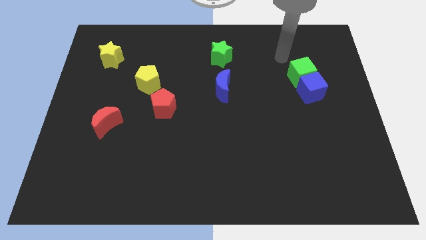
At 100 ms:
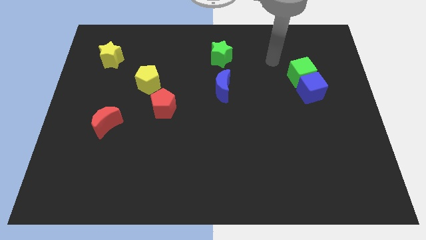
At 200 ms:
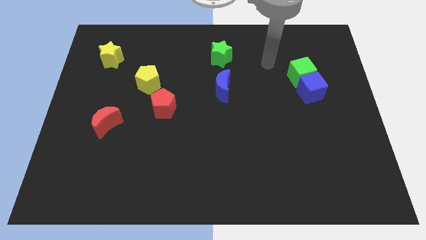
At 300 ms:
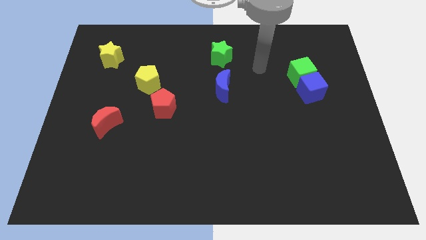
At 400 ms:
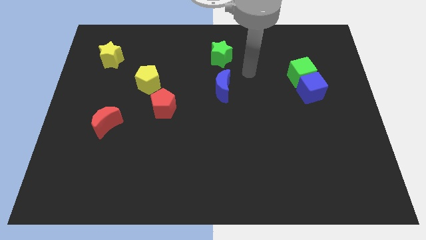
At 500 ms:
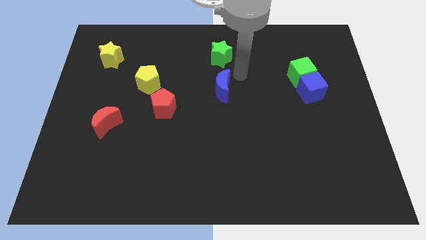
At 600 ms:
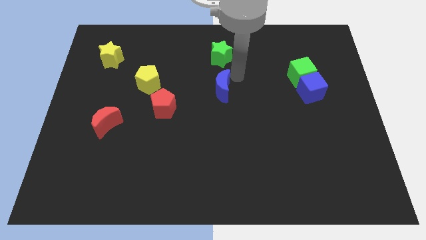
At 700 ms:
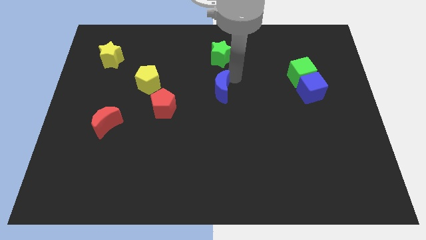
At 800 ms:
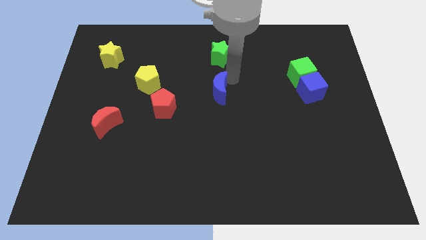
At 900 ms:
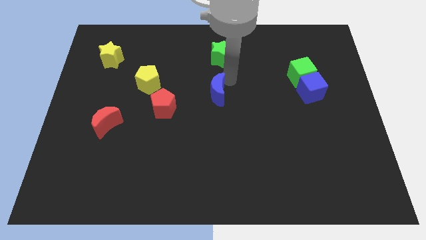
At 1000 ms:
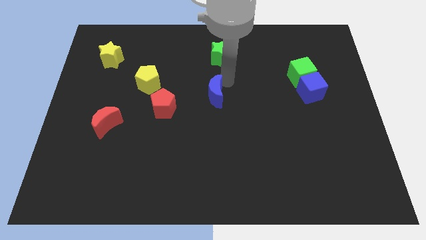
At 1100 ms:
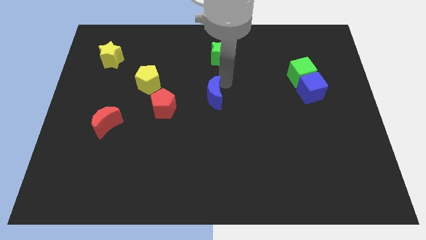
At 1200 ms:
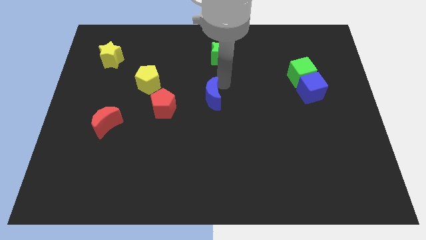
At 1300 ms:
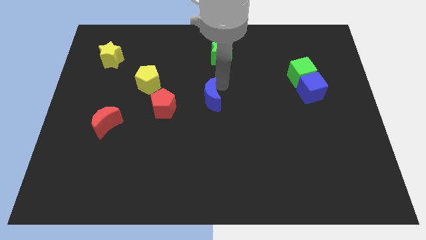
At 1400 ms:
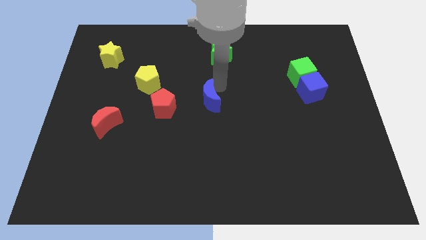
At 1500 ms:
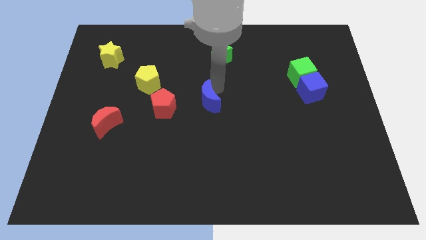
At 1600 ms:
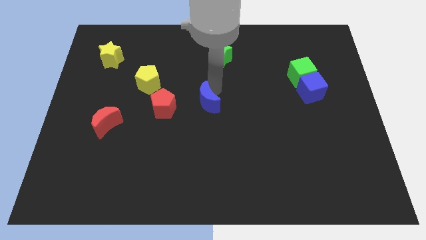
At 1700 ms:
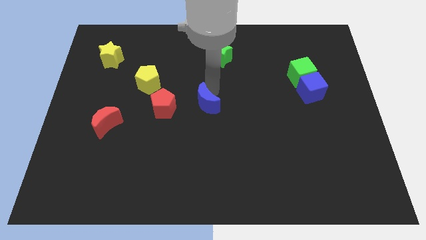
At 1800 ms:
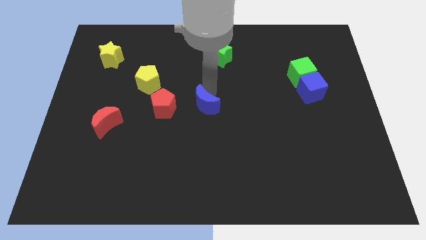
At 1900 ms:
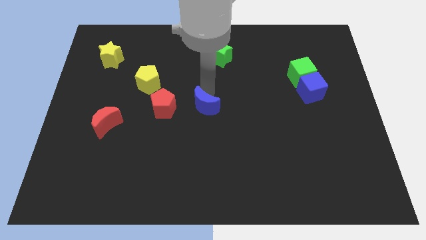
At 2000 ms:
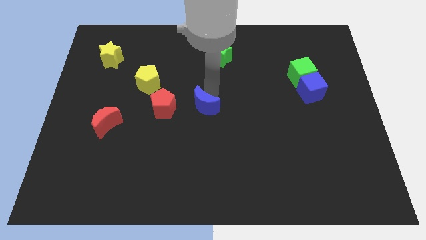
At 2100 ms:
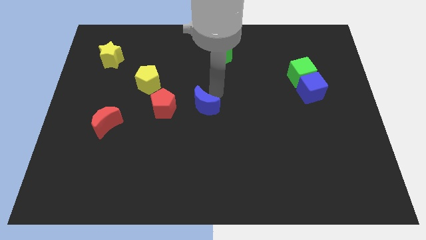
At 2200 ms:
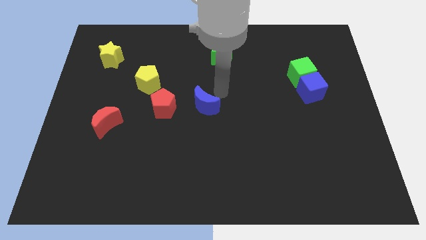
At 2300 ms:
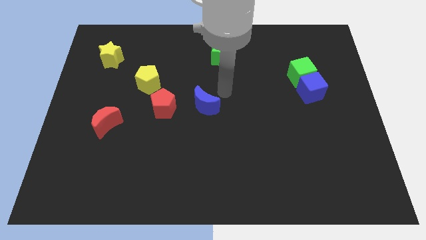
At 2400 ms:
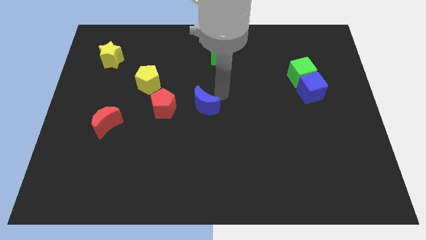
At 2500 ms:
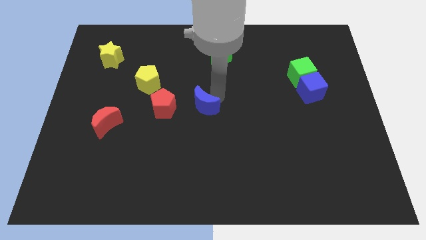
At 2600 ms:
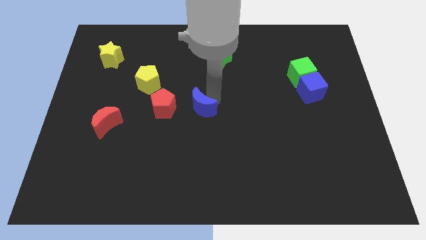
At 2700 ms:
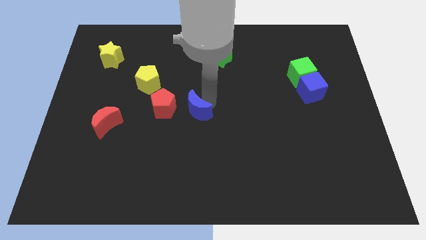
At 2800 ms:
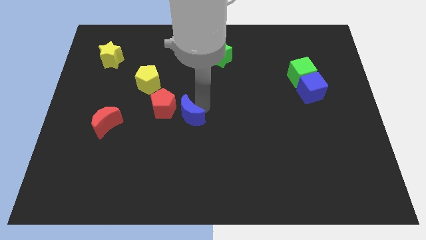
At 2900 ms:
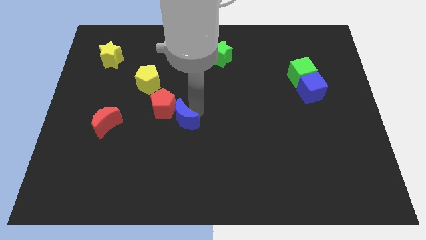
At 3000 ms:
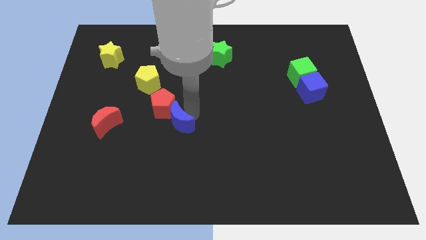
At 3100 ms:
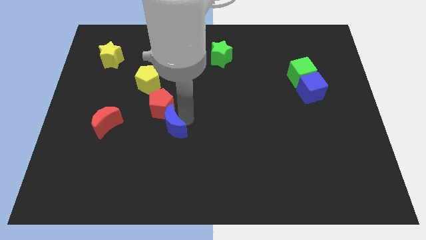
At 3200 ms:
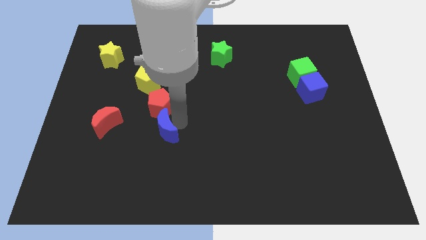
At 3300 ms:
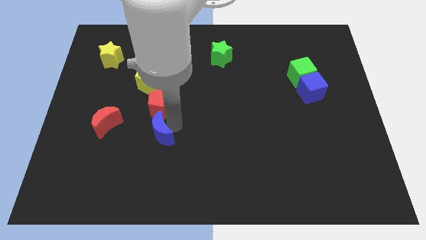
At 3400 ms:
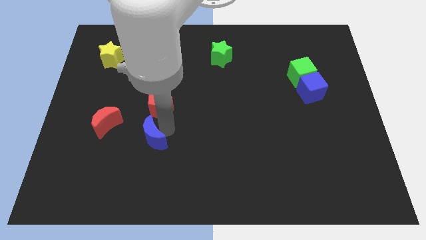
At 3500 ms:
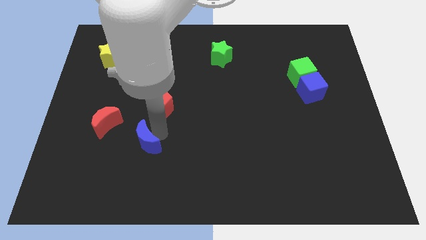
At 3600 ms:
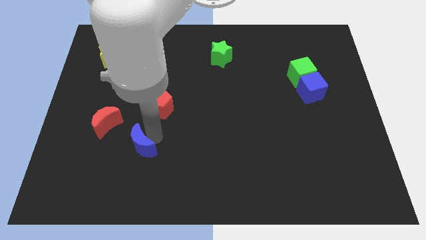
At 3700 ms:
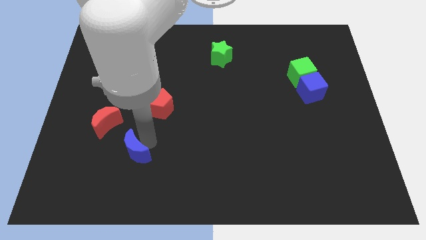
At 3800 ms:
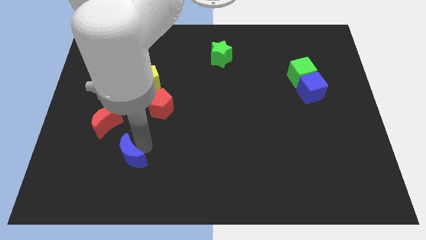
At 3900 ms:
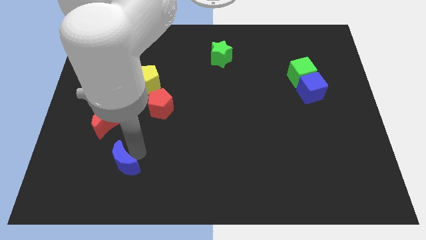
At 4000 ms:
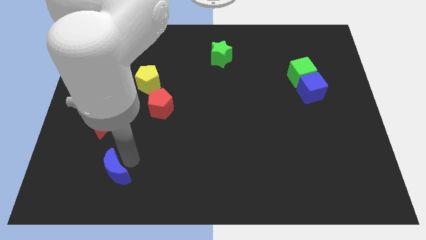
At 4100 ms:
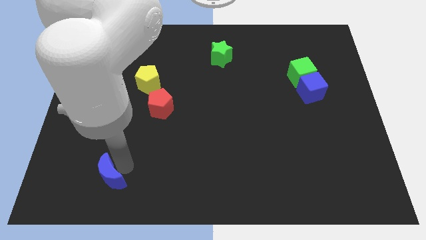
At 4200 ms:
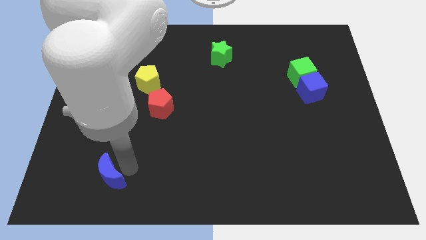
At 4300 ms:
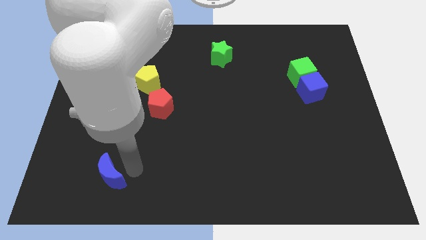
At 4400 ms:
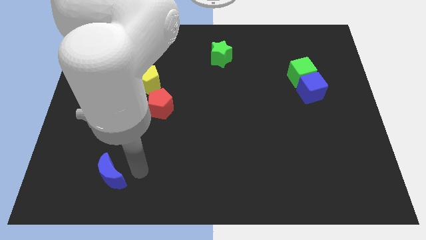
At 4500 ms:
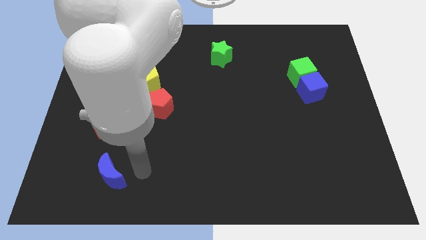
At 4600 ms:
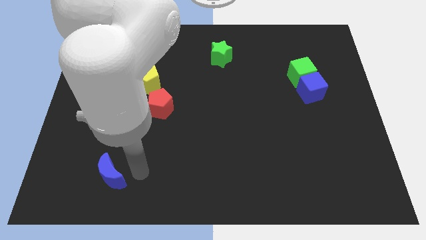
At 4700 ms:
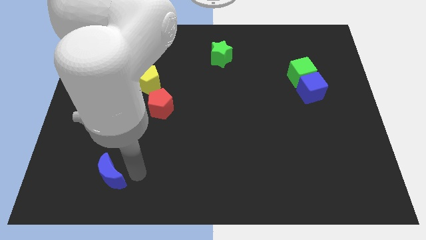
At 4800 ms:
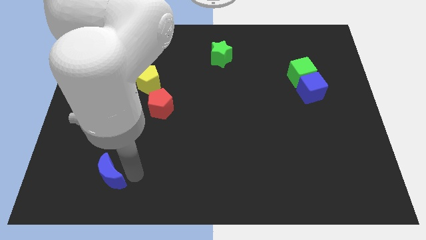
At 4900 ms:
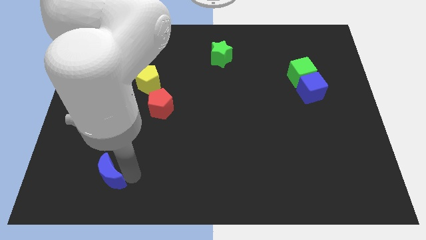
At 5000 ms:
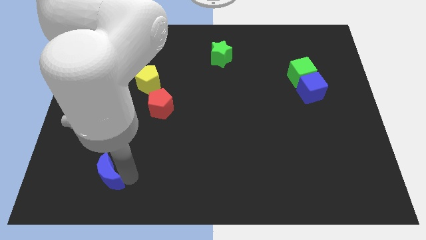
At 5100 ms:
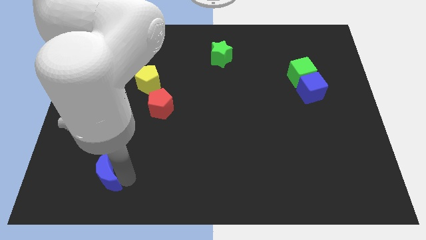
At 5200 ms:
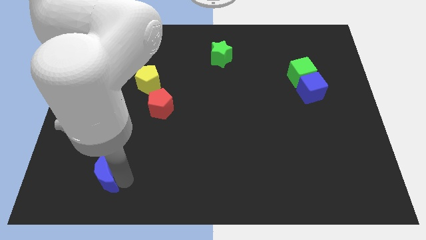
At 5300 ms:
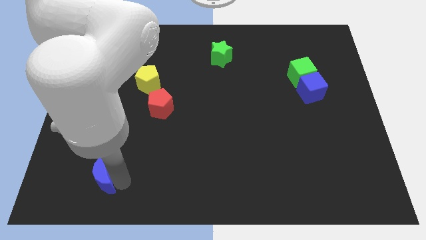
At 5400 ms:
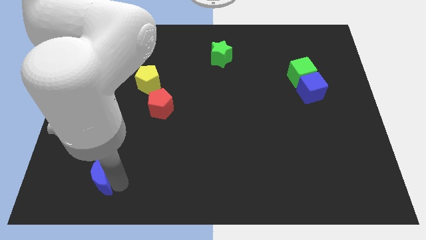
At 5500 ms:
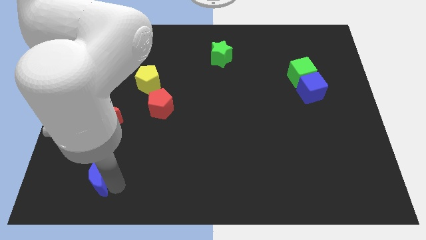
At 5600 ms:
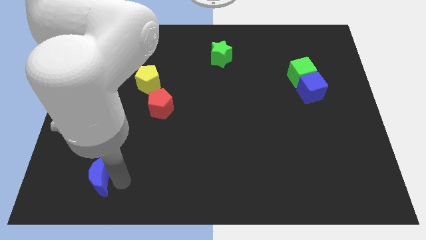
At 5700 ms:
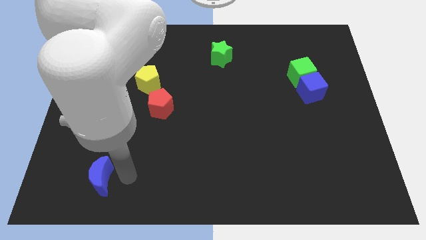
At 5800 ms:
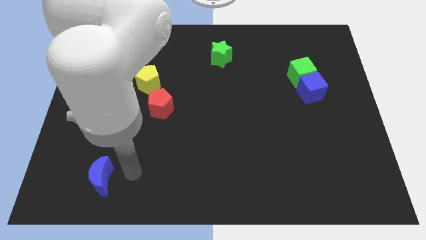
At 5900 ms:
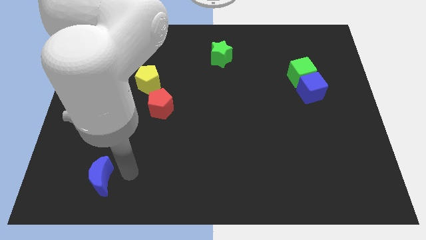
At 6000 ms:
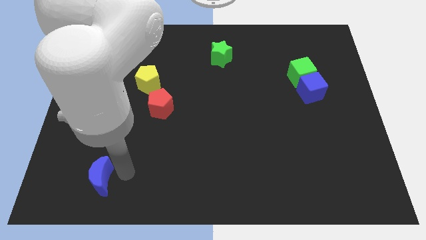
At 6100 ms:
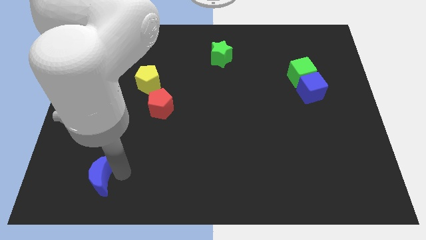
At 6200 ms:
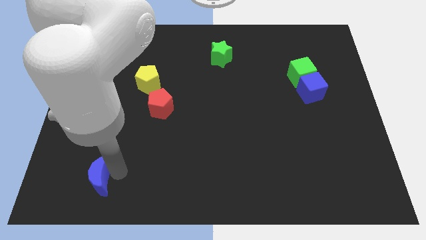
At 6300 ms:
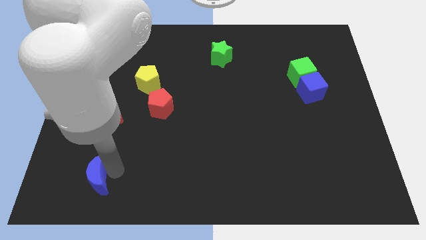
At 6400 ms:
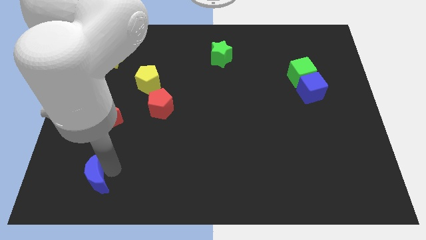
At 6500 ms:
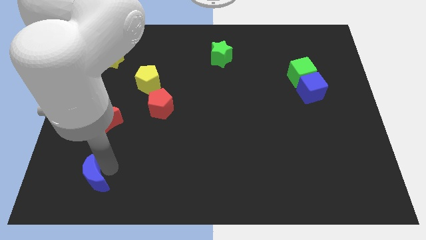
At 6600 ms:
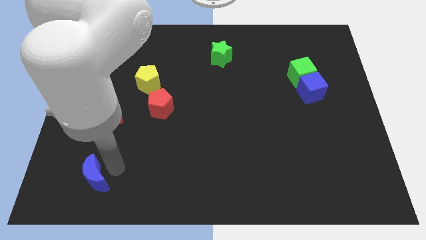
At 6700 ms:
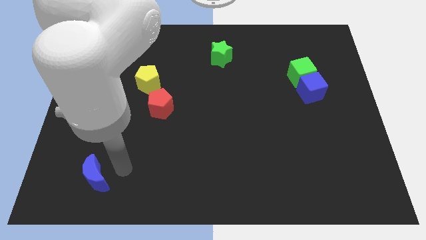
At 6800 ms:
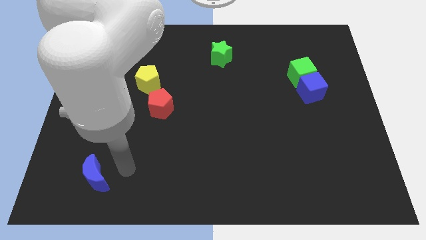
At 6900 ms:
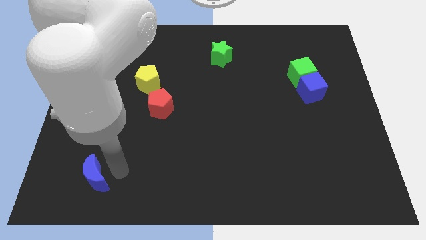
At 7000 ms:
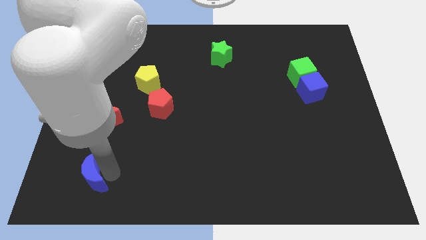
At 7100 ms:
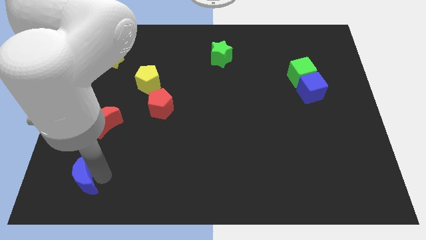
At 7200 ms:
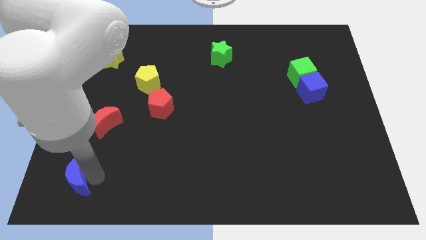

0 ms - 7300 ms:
push the blue moon to the bottom left
